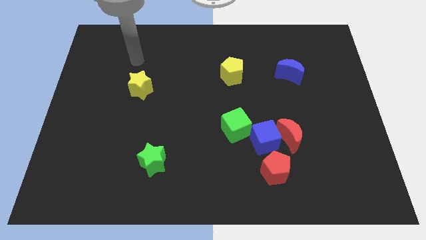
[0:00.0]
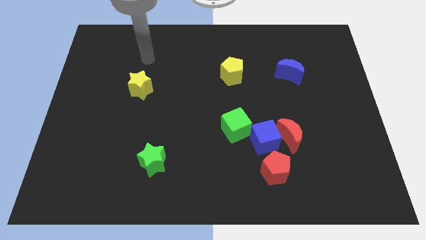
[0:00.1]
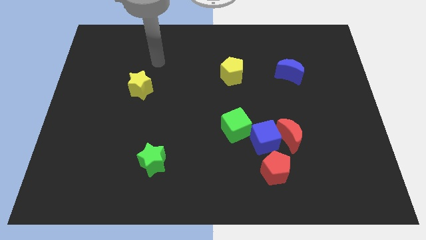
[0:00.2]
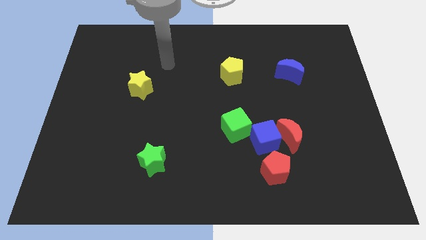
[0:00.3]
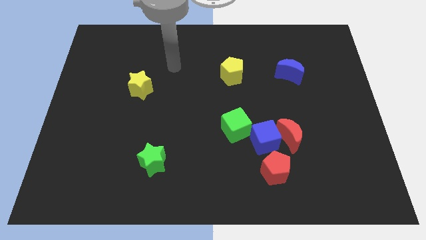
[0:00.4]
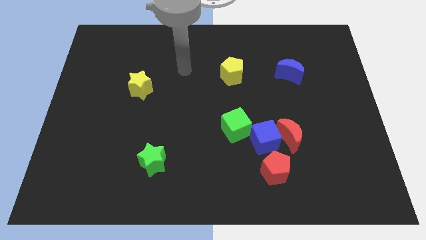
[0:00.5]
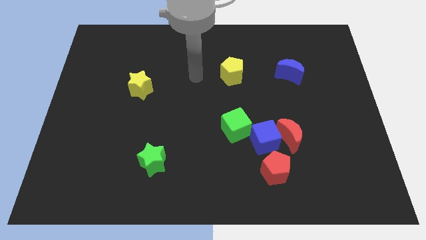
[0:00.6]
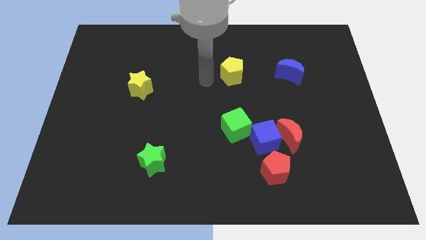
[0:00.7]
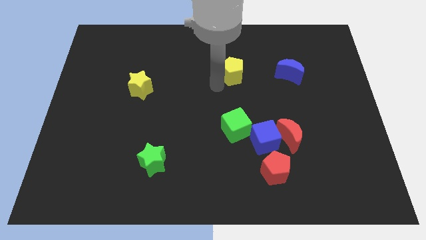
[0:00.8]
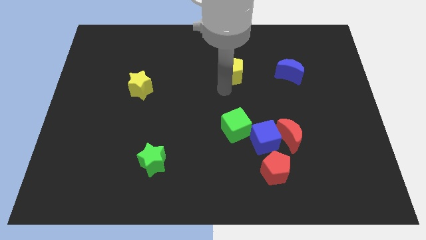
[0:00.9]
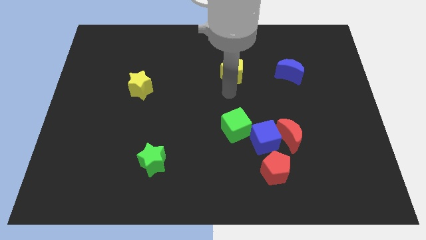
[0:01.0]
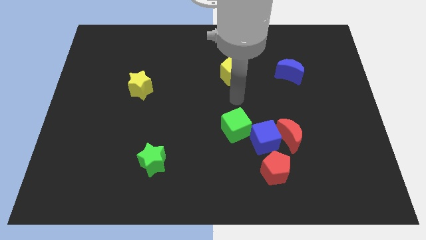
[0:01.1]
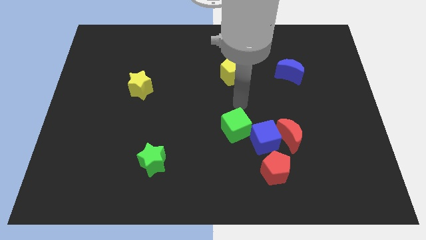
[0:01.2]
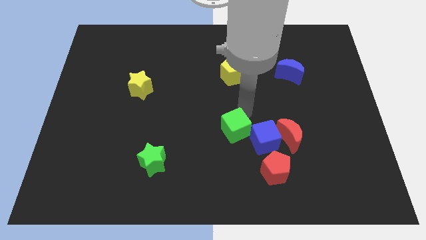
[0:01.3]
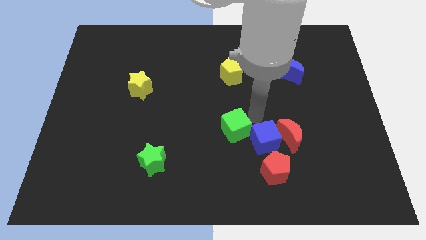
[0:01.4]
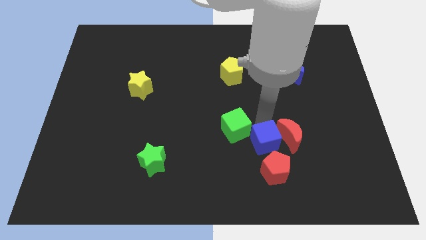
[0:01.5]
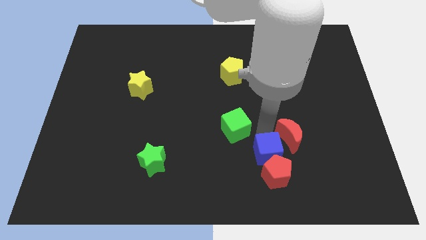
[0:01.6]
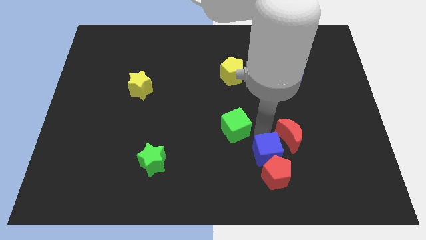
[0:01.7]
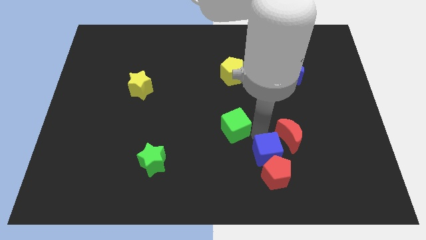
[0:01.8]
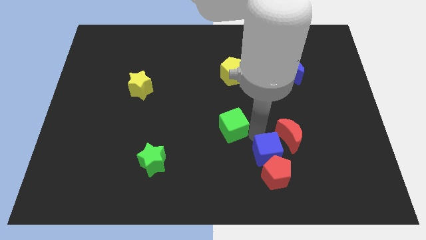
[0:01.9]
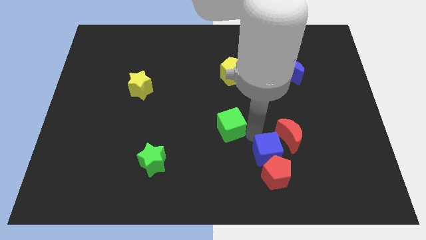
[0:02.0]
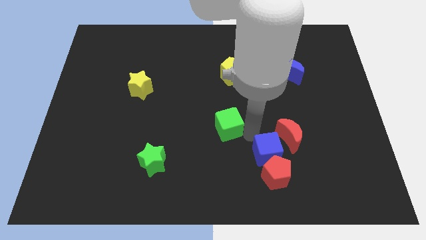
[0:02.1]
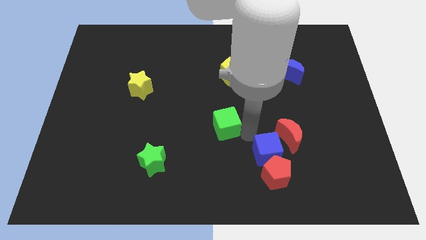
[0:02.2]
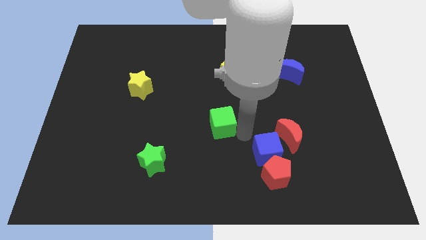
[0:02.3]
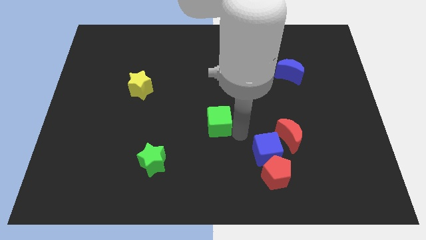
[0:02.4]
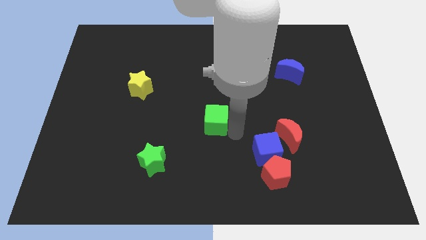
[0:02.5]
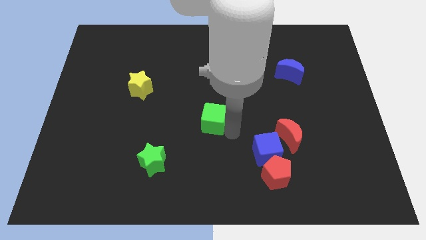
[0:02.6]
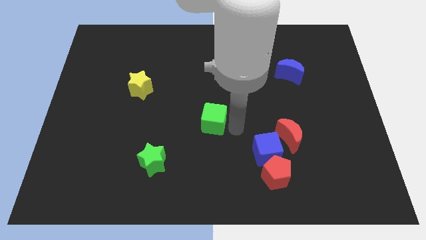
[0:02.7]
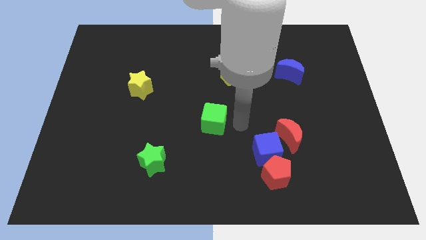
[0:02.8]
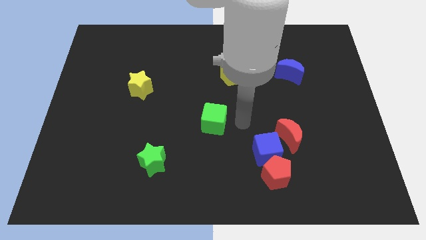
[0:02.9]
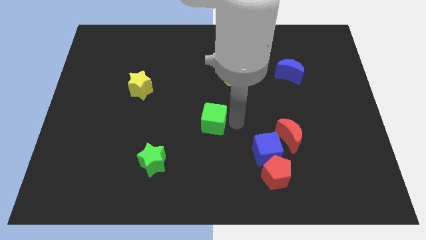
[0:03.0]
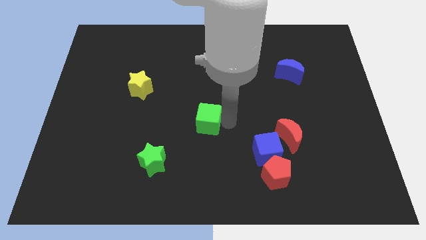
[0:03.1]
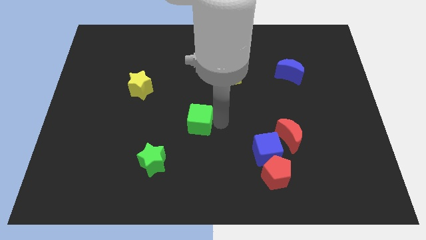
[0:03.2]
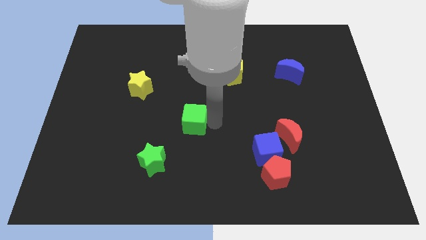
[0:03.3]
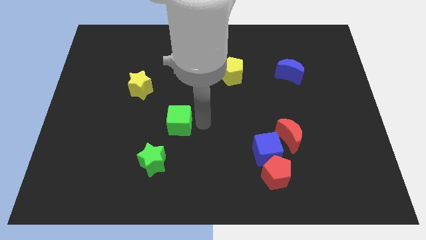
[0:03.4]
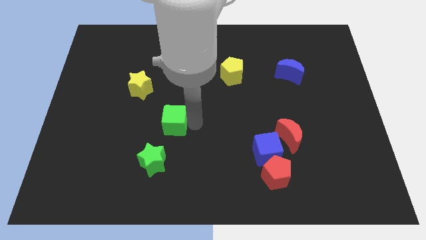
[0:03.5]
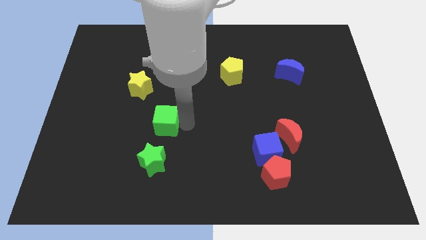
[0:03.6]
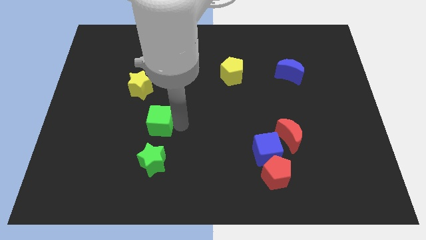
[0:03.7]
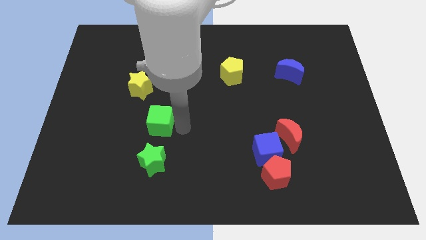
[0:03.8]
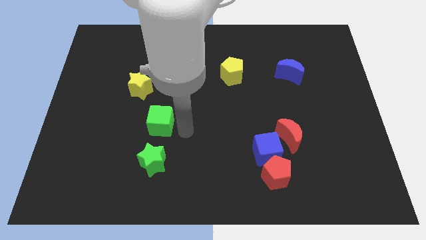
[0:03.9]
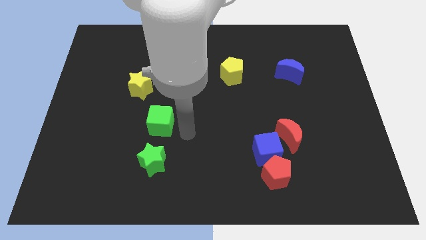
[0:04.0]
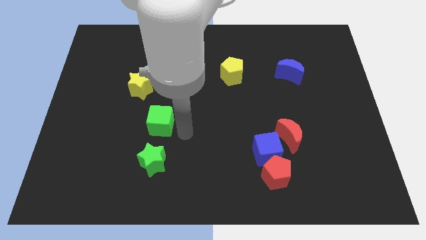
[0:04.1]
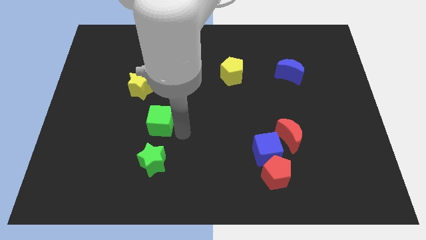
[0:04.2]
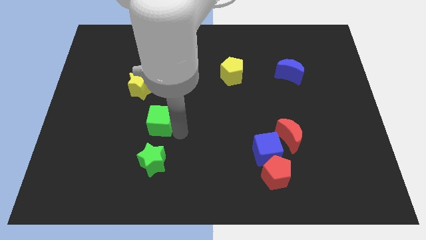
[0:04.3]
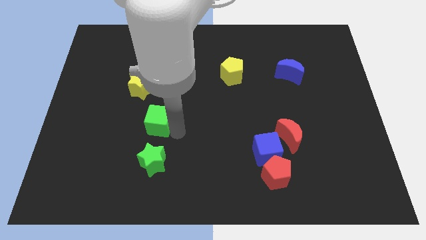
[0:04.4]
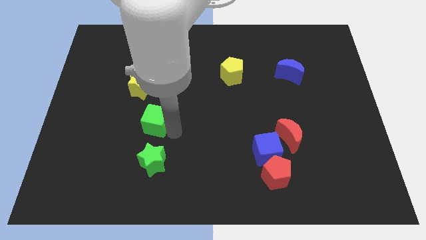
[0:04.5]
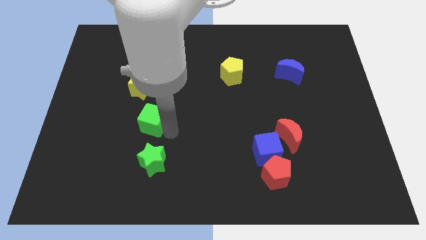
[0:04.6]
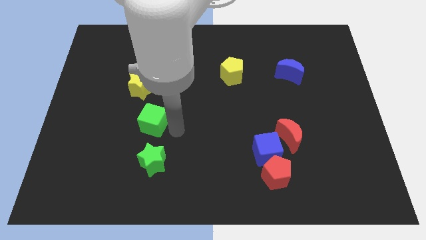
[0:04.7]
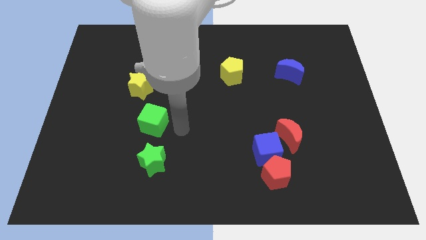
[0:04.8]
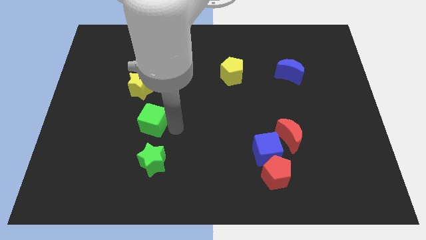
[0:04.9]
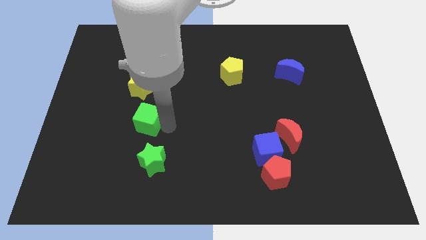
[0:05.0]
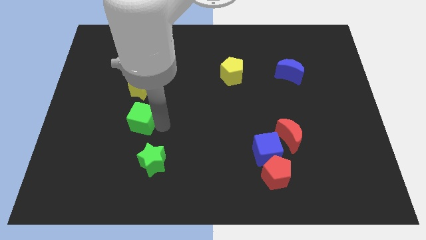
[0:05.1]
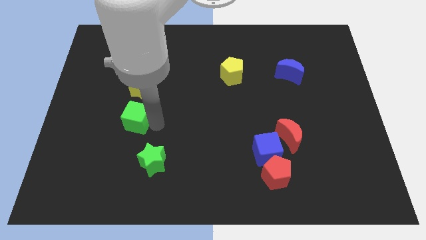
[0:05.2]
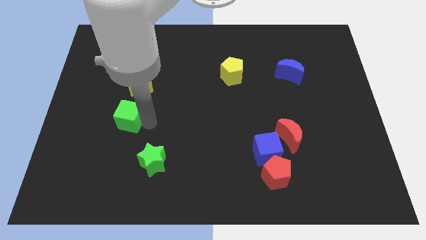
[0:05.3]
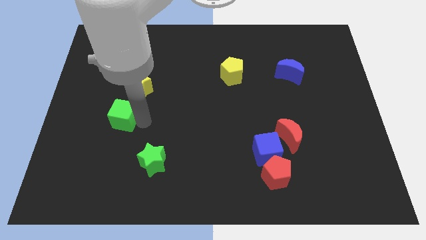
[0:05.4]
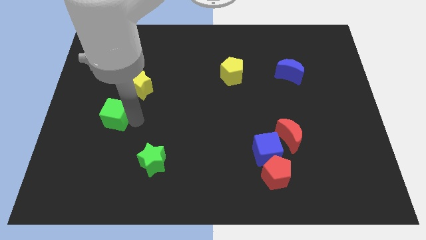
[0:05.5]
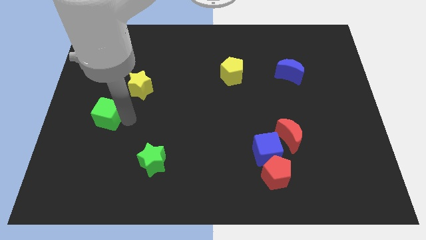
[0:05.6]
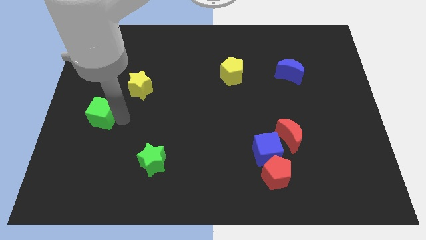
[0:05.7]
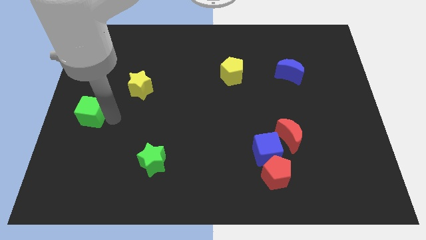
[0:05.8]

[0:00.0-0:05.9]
slide the green cube to the left side of the board

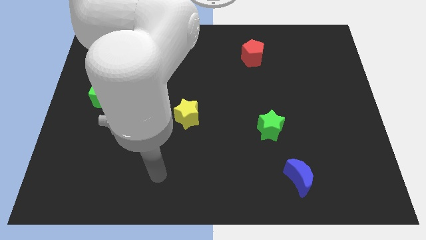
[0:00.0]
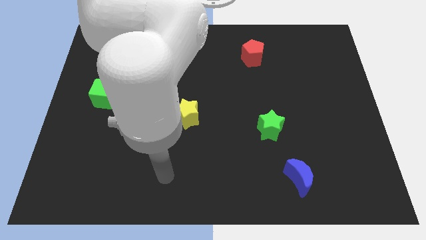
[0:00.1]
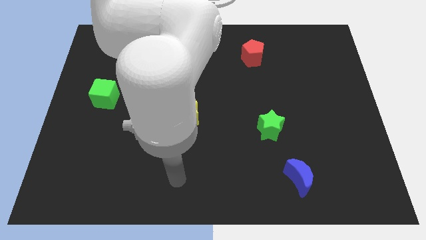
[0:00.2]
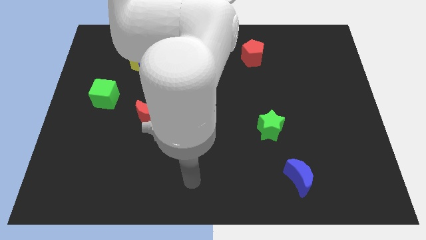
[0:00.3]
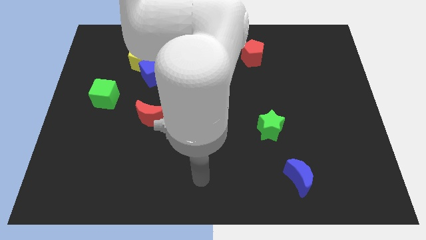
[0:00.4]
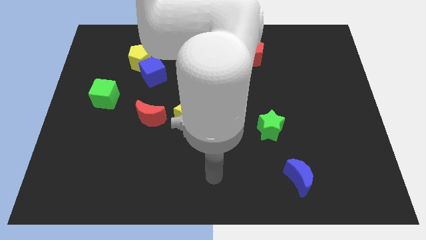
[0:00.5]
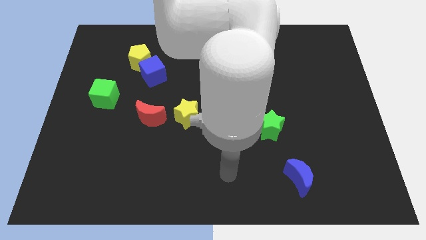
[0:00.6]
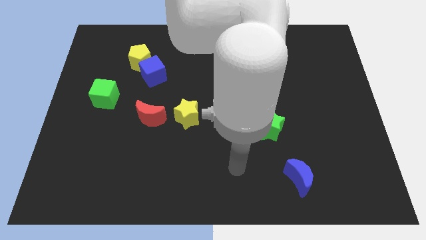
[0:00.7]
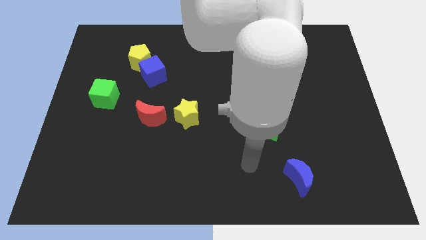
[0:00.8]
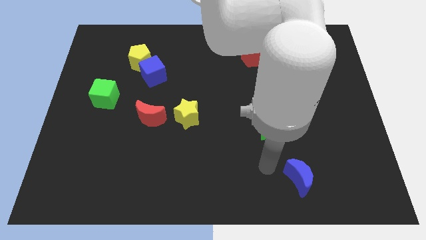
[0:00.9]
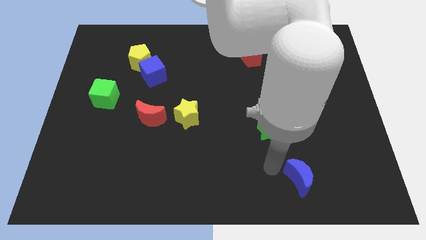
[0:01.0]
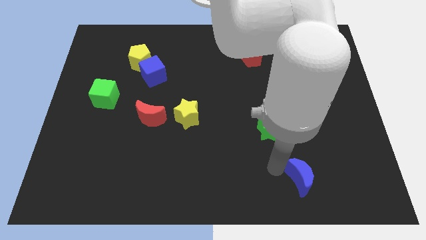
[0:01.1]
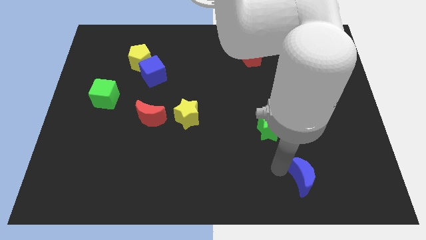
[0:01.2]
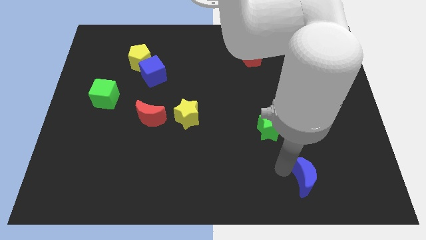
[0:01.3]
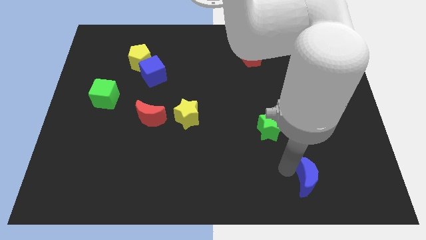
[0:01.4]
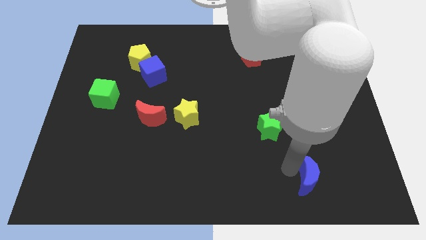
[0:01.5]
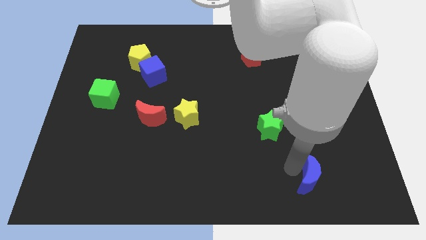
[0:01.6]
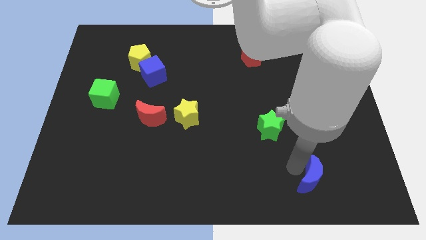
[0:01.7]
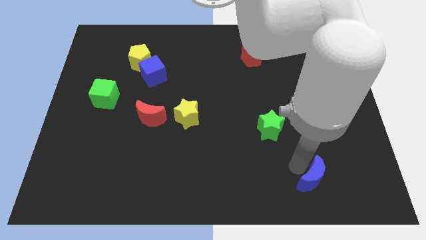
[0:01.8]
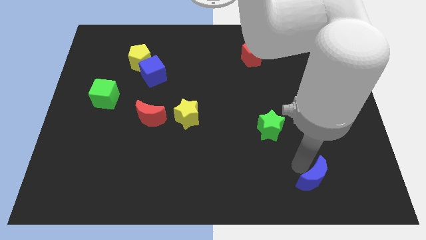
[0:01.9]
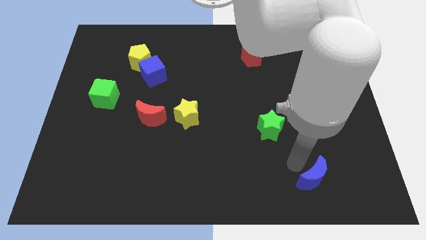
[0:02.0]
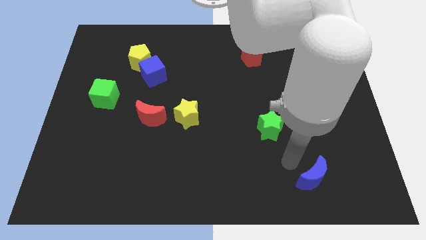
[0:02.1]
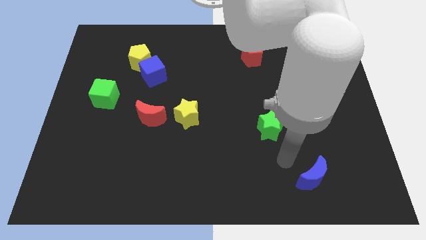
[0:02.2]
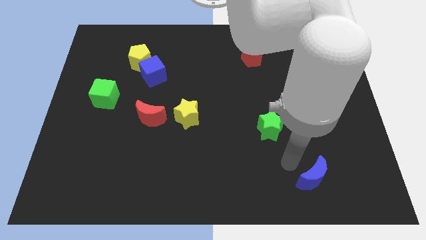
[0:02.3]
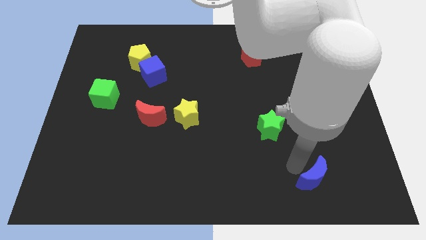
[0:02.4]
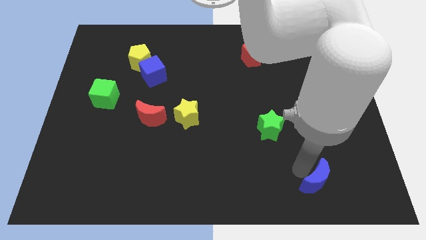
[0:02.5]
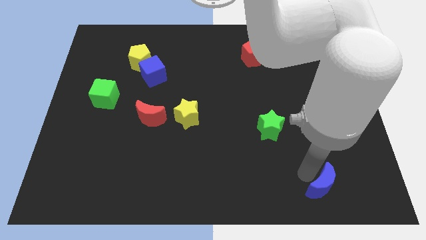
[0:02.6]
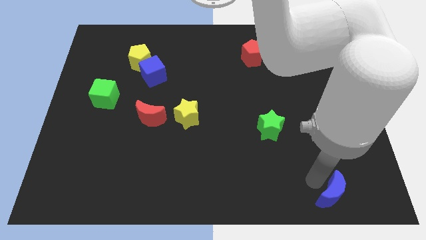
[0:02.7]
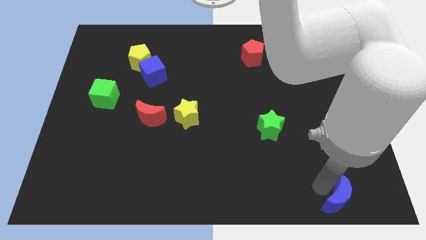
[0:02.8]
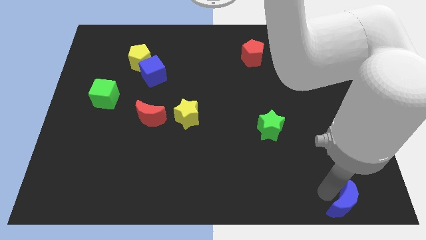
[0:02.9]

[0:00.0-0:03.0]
push the blue moon to the bottom right
